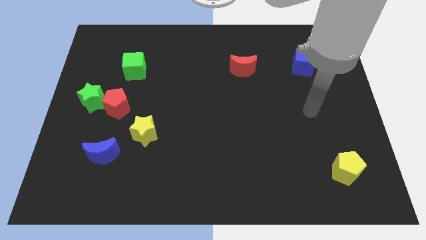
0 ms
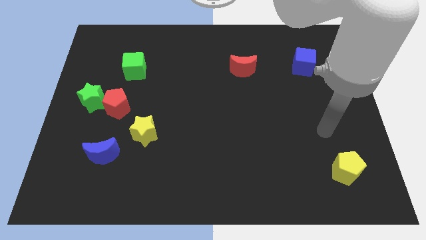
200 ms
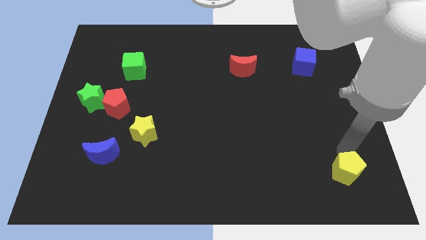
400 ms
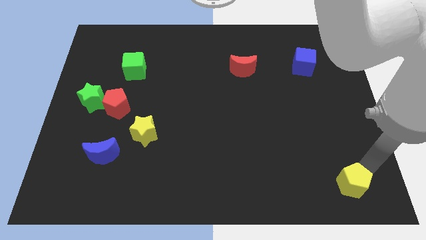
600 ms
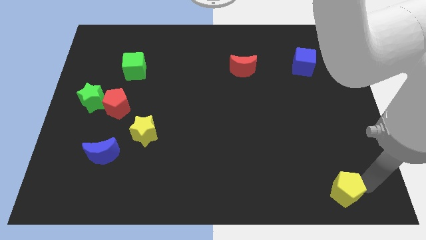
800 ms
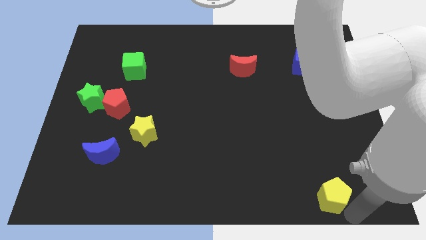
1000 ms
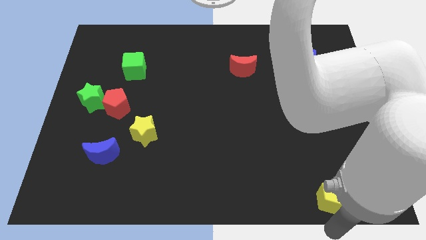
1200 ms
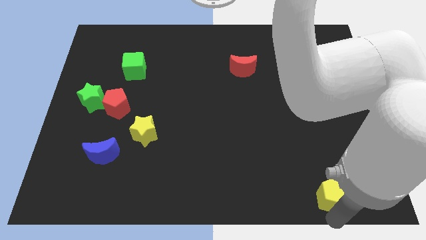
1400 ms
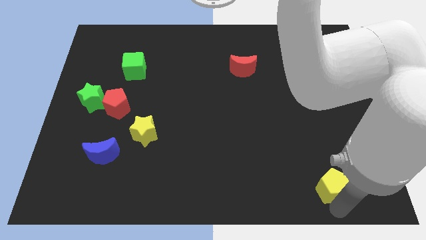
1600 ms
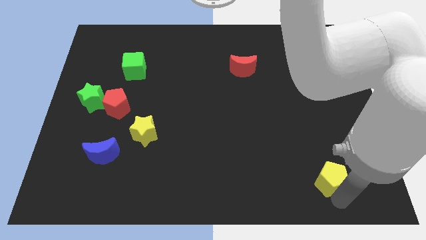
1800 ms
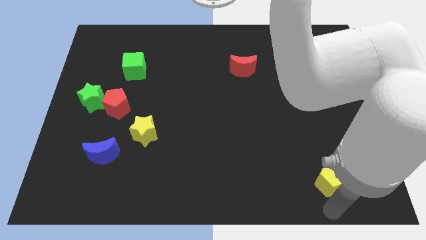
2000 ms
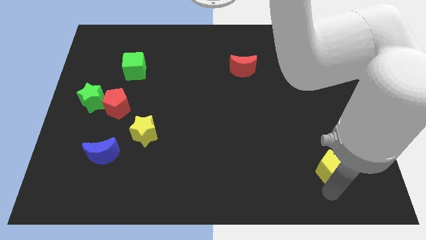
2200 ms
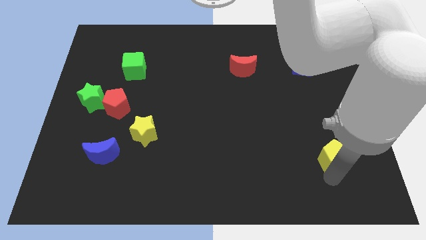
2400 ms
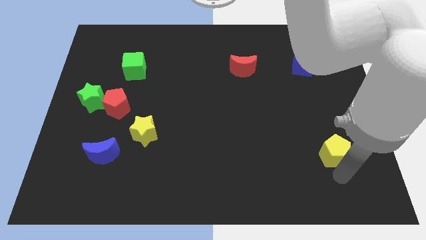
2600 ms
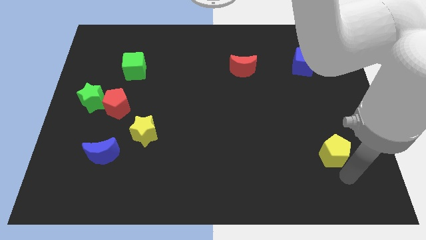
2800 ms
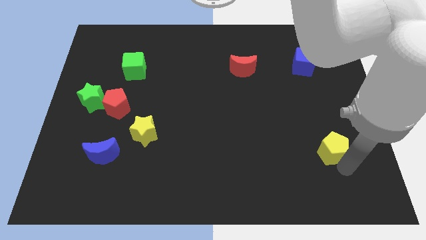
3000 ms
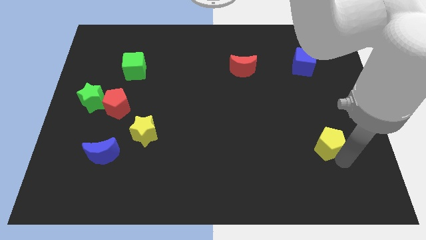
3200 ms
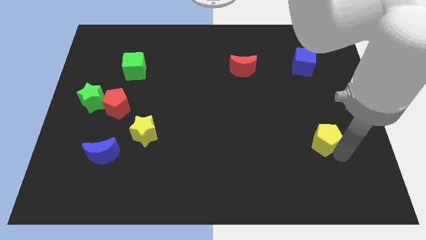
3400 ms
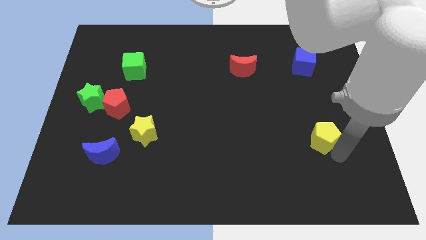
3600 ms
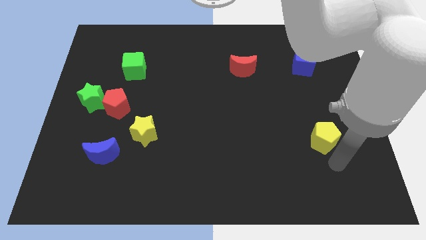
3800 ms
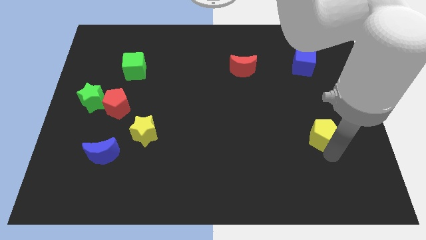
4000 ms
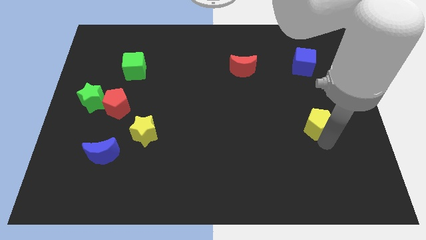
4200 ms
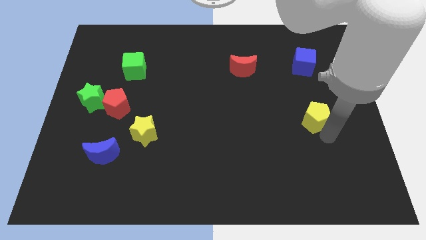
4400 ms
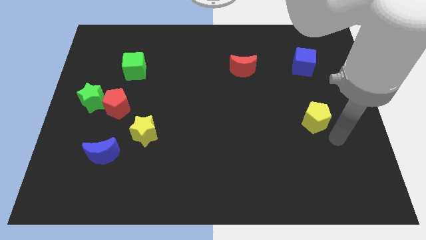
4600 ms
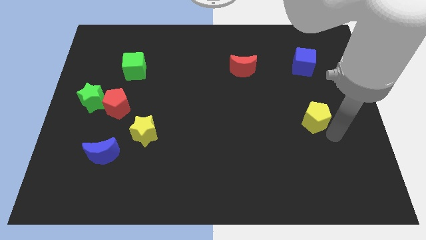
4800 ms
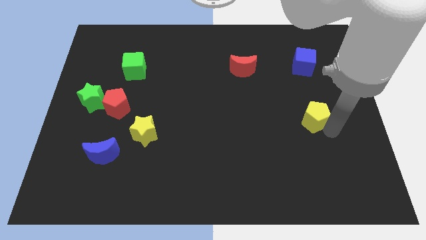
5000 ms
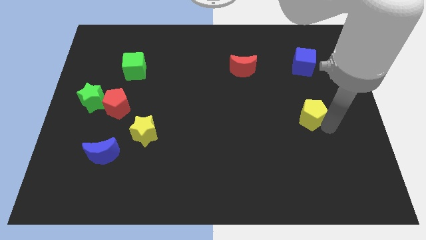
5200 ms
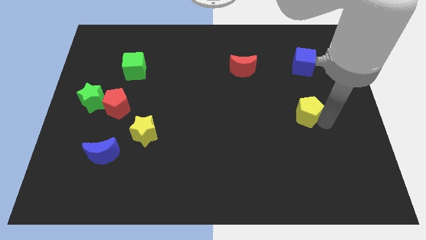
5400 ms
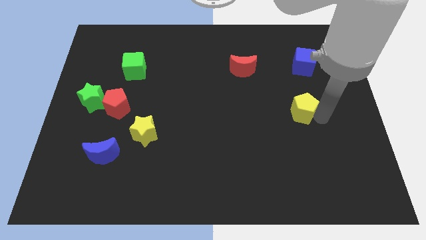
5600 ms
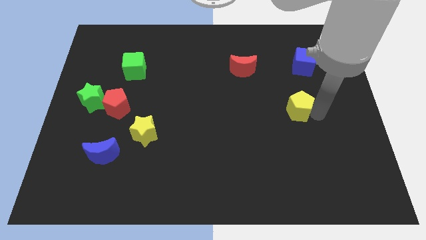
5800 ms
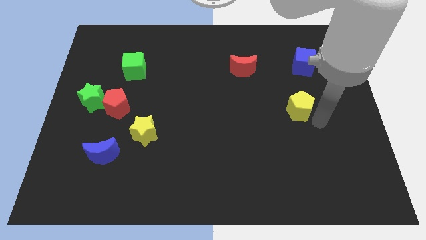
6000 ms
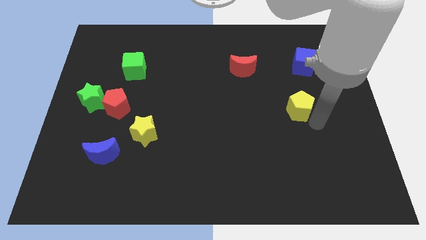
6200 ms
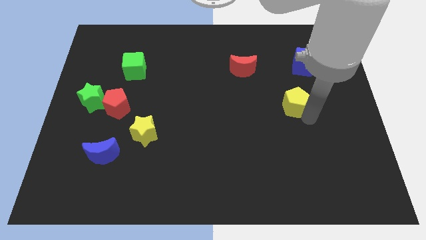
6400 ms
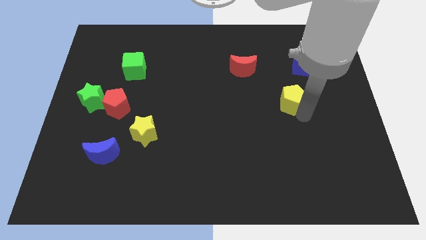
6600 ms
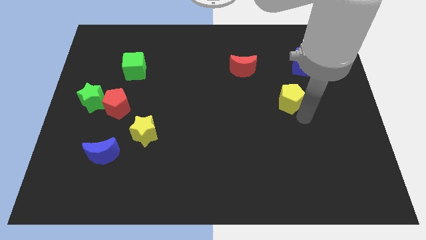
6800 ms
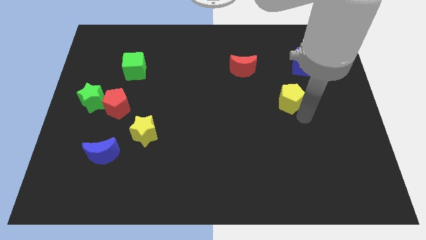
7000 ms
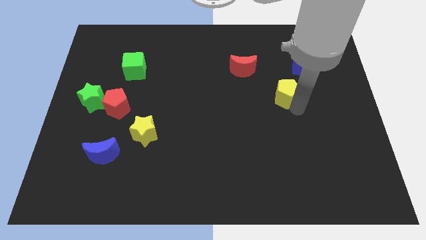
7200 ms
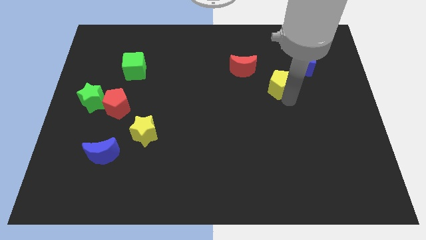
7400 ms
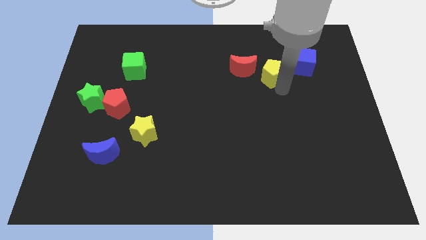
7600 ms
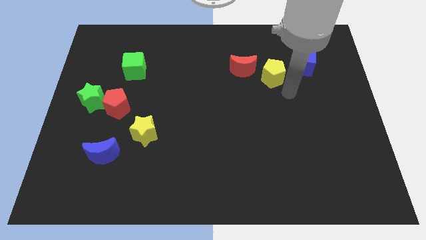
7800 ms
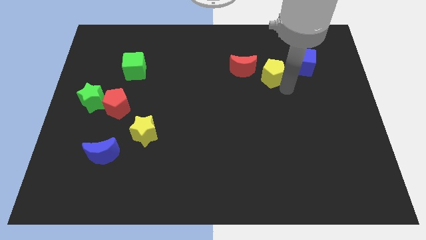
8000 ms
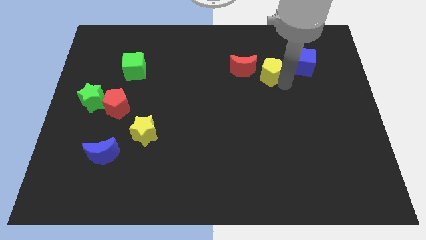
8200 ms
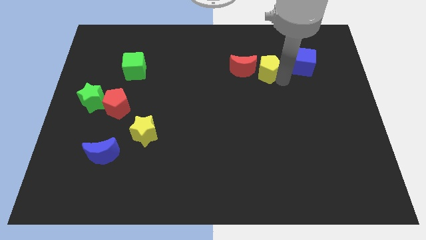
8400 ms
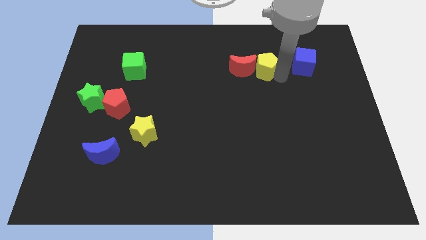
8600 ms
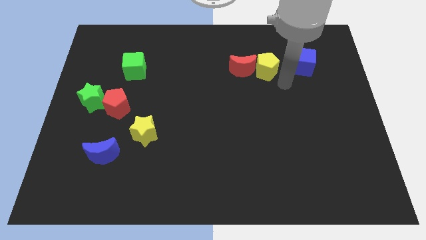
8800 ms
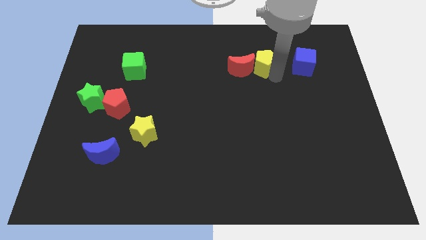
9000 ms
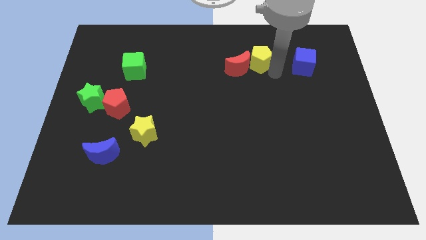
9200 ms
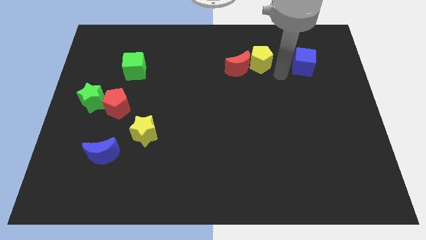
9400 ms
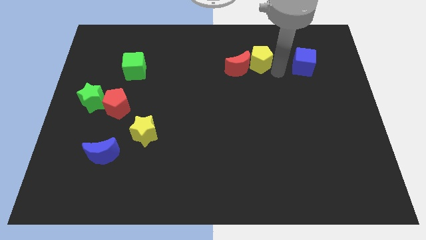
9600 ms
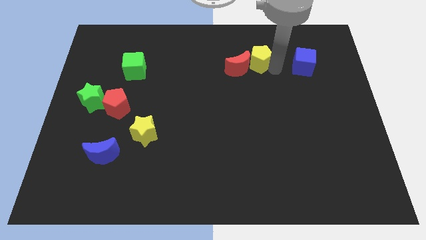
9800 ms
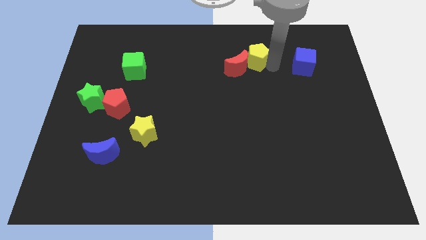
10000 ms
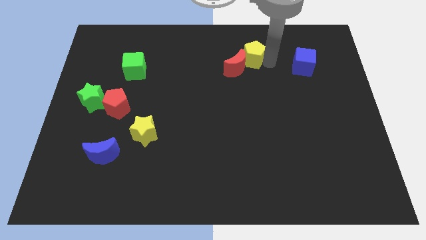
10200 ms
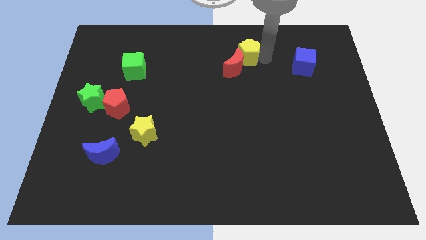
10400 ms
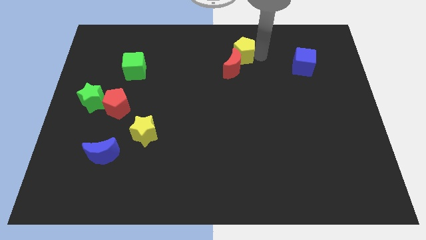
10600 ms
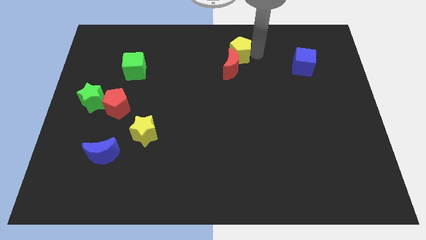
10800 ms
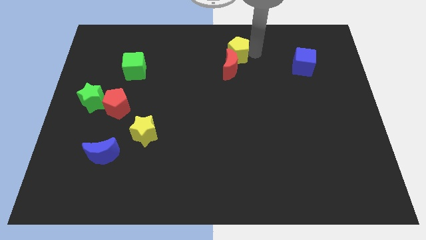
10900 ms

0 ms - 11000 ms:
push the yellow pentagon to the top side
